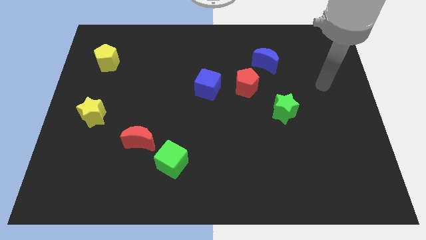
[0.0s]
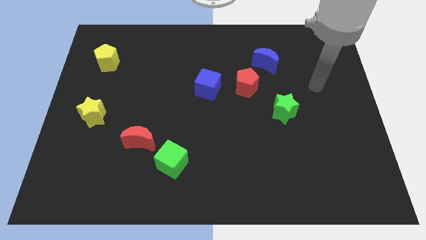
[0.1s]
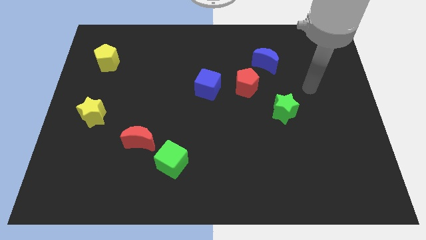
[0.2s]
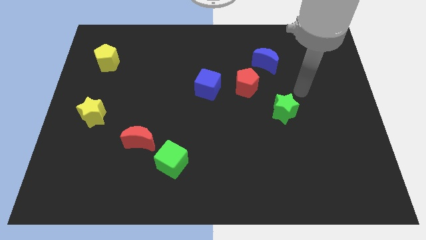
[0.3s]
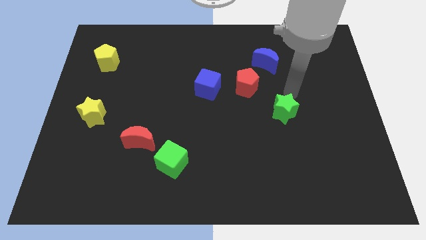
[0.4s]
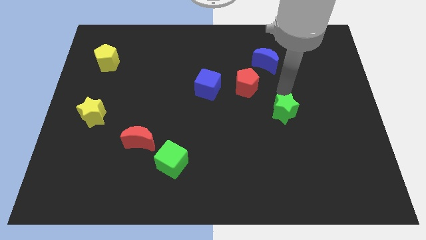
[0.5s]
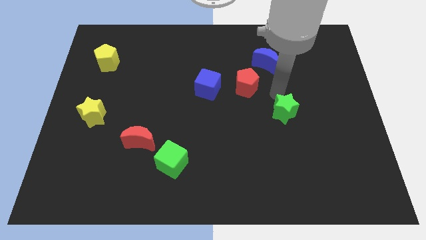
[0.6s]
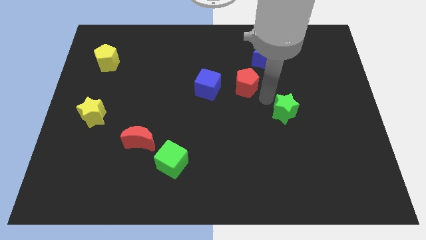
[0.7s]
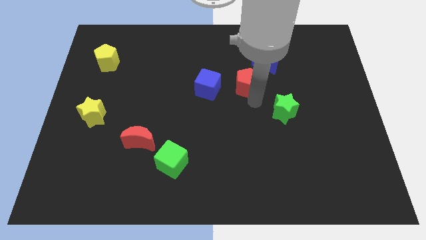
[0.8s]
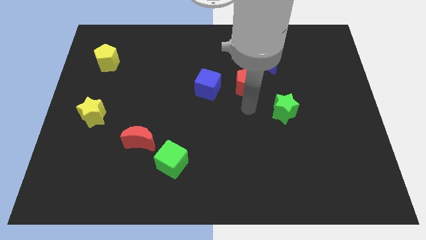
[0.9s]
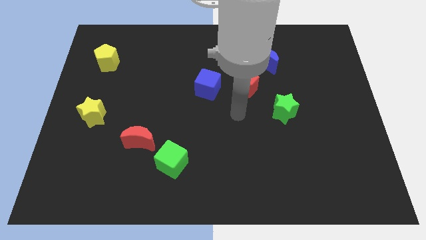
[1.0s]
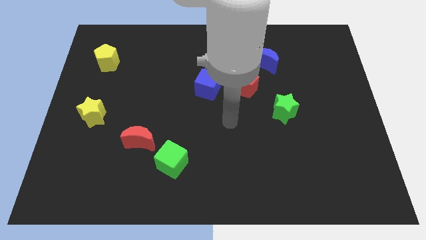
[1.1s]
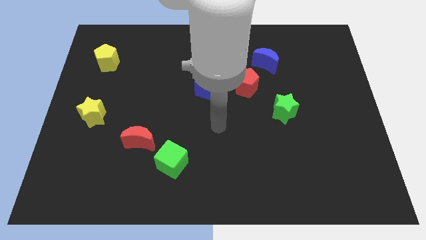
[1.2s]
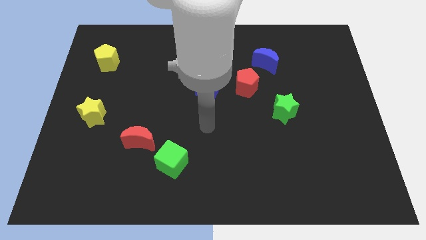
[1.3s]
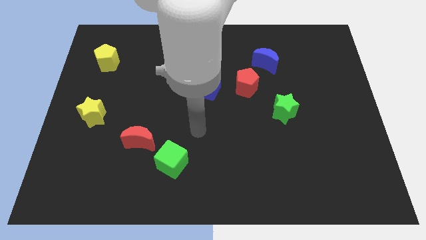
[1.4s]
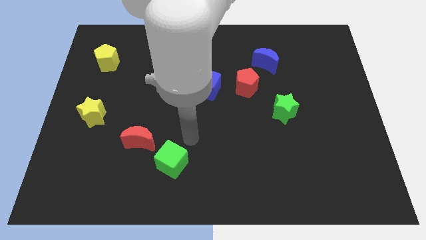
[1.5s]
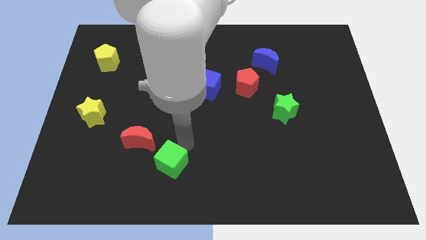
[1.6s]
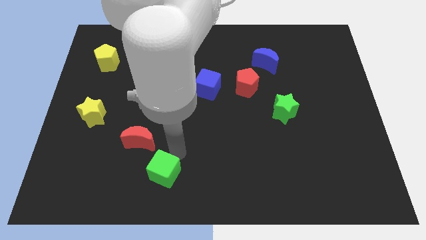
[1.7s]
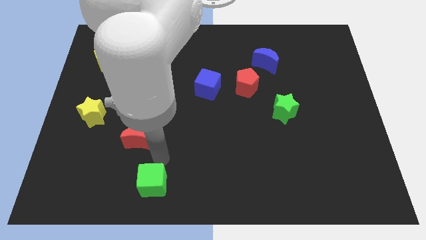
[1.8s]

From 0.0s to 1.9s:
pull the red moon apart from the green cube

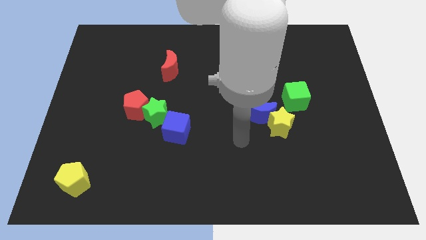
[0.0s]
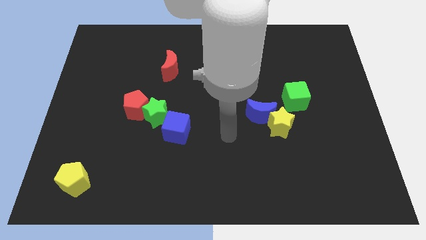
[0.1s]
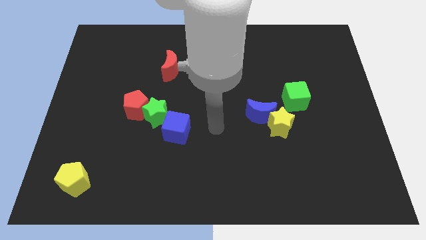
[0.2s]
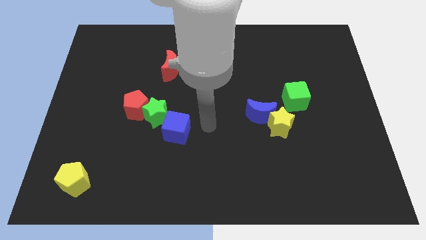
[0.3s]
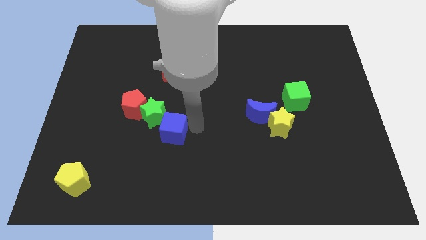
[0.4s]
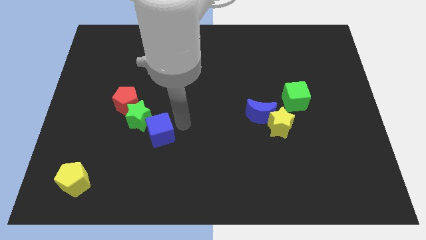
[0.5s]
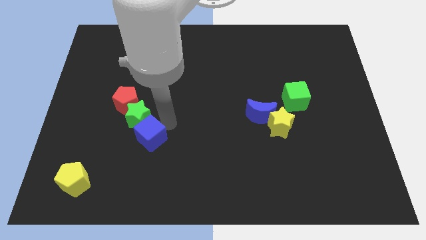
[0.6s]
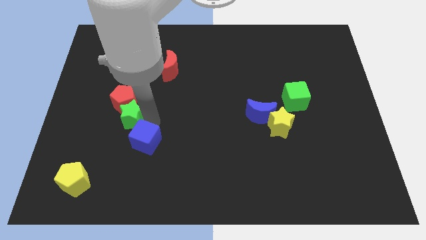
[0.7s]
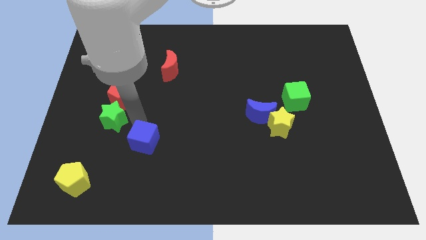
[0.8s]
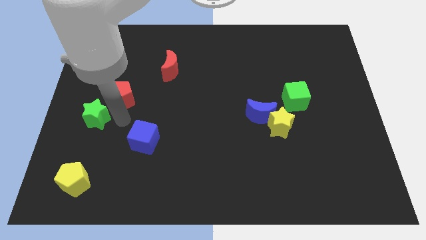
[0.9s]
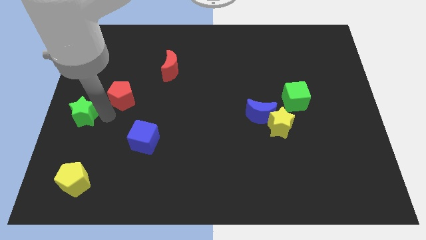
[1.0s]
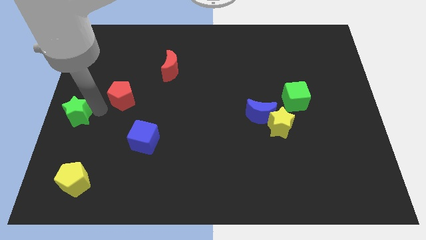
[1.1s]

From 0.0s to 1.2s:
pull the red pentagon apart from the green star

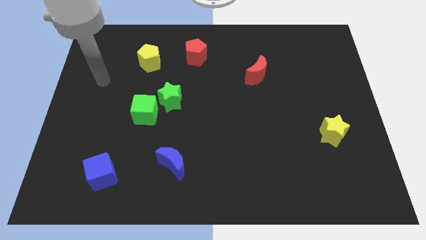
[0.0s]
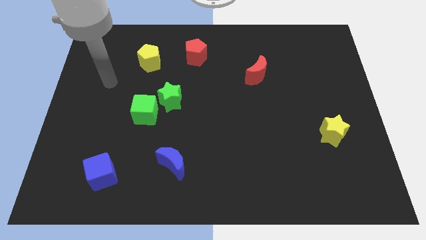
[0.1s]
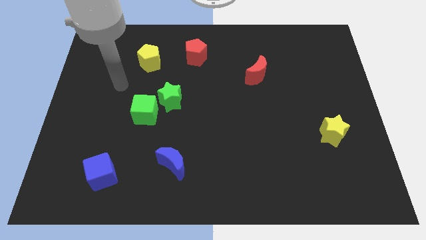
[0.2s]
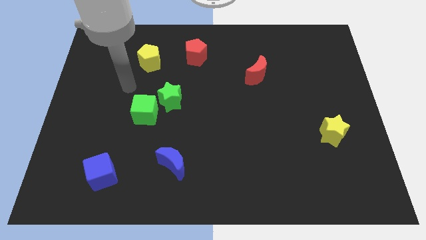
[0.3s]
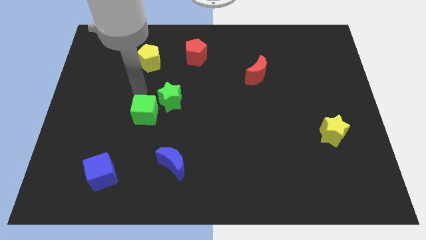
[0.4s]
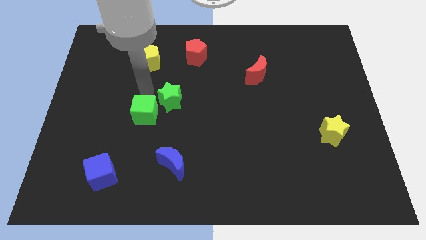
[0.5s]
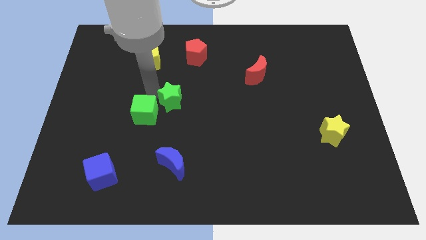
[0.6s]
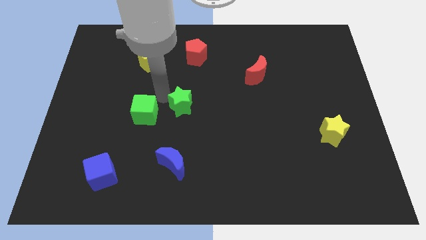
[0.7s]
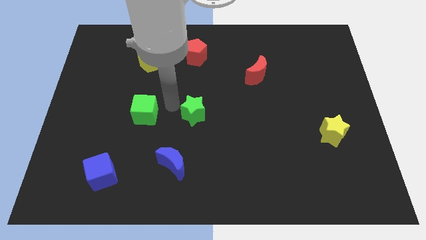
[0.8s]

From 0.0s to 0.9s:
move the green cube away from the green star

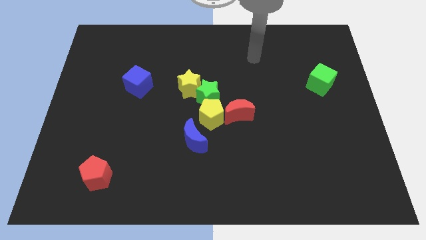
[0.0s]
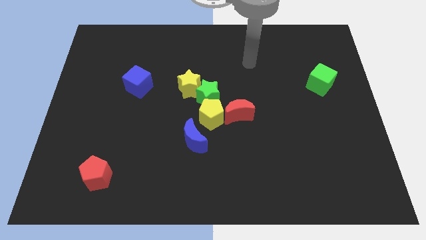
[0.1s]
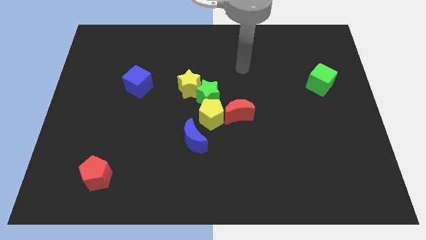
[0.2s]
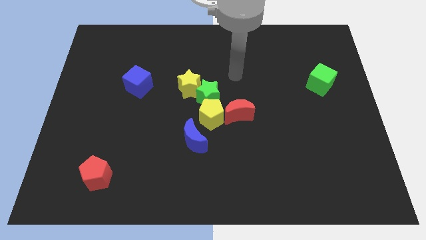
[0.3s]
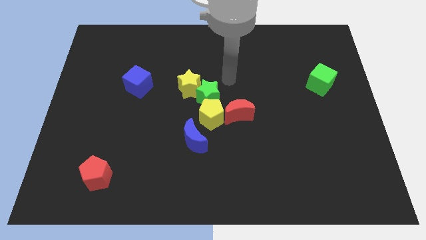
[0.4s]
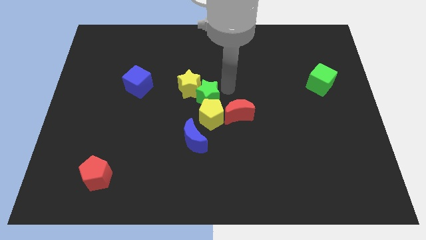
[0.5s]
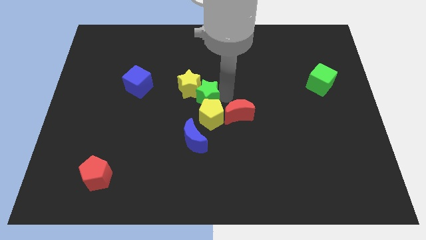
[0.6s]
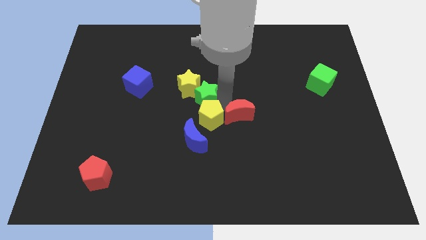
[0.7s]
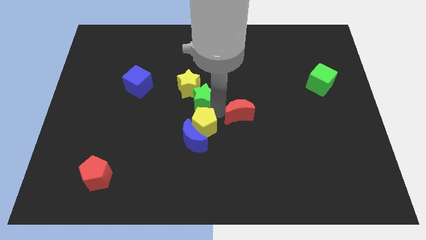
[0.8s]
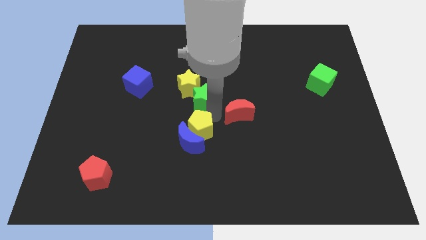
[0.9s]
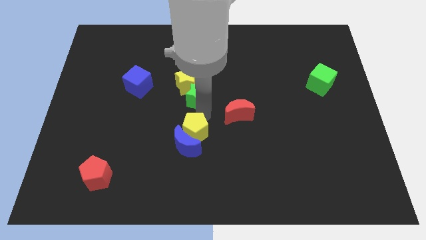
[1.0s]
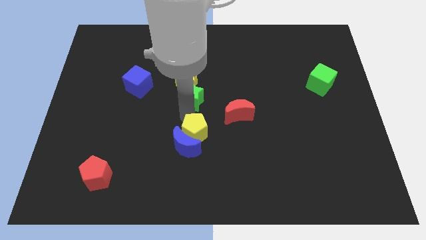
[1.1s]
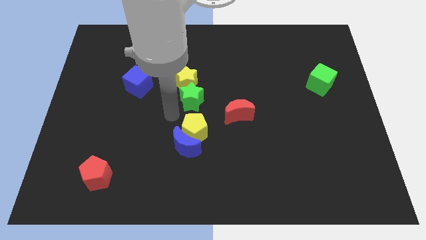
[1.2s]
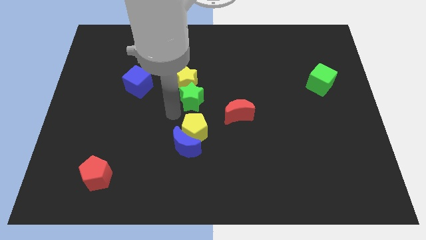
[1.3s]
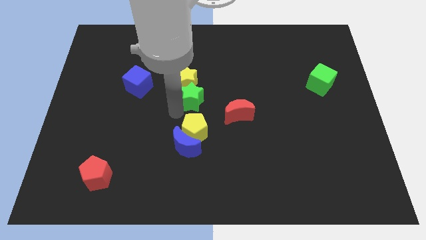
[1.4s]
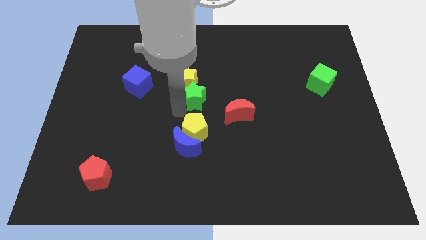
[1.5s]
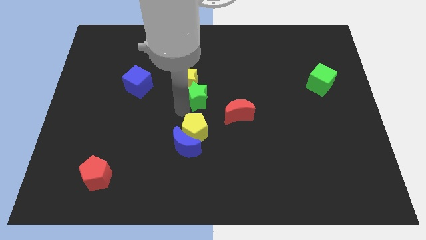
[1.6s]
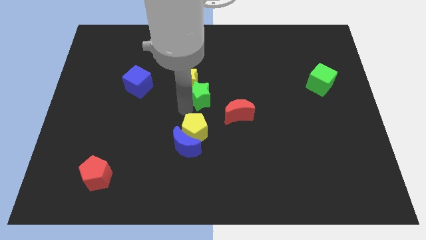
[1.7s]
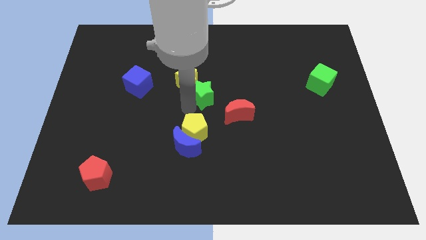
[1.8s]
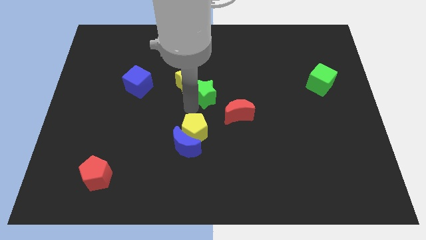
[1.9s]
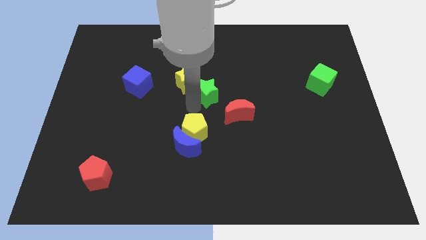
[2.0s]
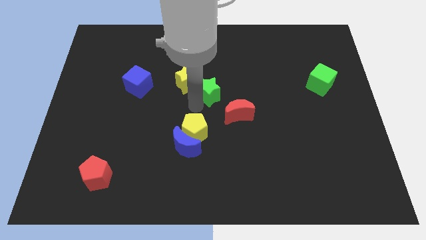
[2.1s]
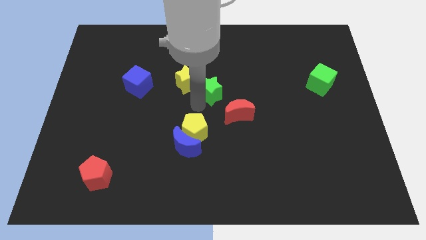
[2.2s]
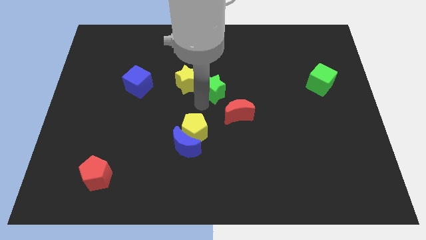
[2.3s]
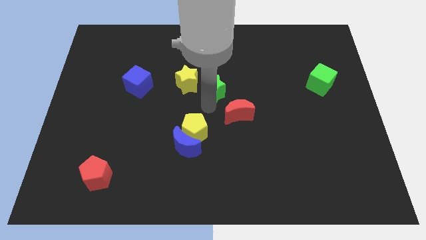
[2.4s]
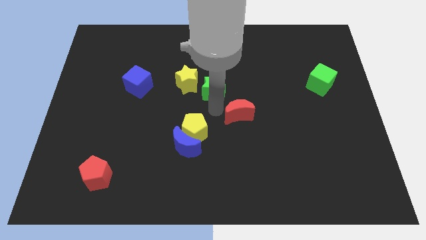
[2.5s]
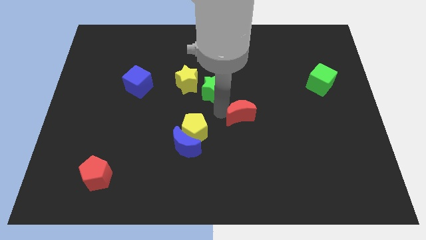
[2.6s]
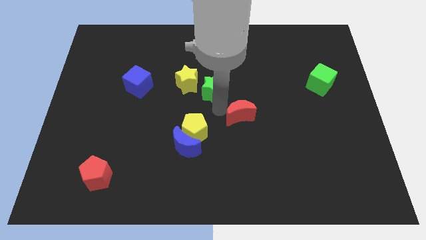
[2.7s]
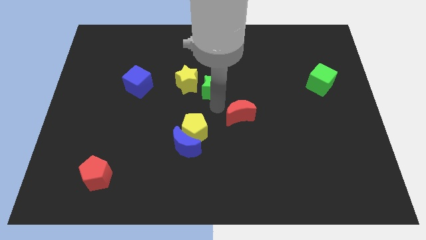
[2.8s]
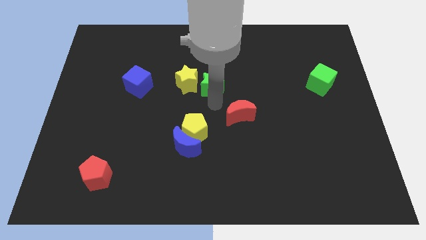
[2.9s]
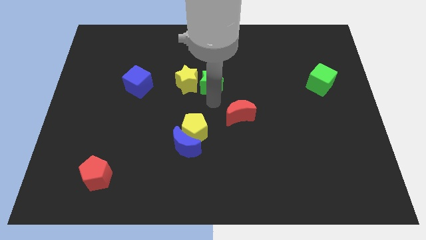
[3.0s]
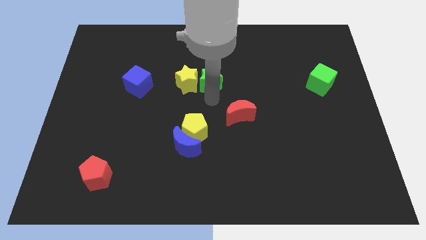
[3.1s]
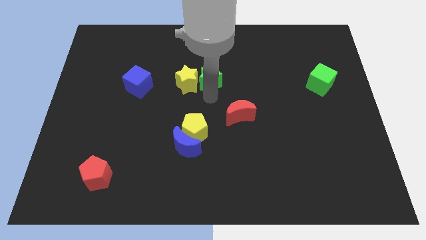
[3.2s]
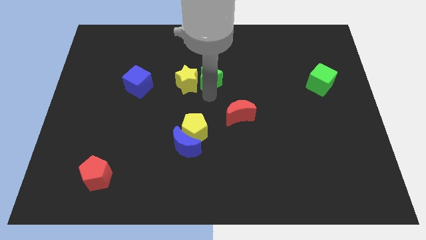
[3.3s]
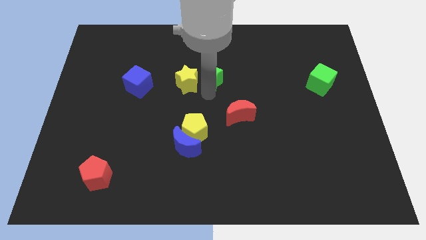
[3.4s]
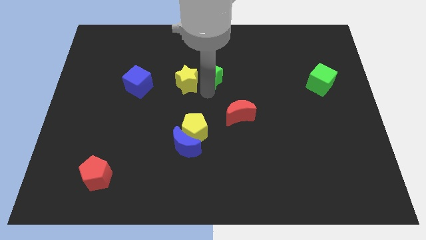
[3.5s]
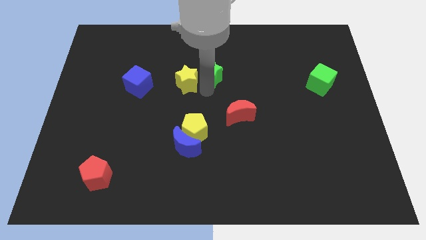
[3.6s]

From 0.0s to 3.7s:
move the green star away from the yellow star, yellow pentagon, and red moon

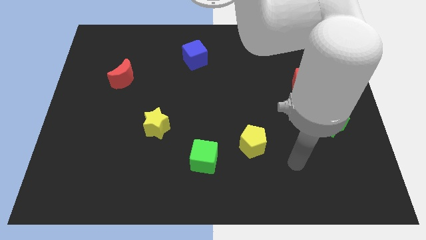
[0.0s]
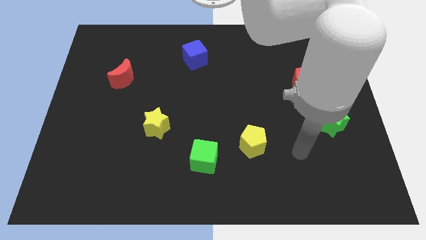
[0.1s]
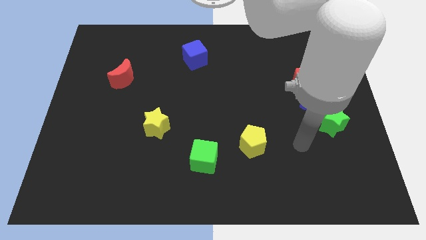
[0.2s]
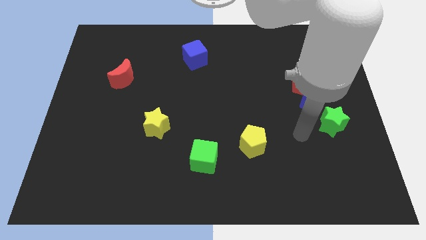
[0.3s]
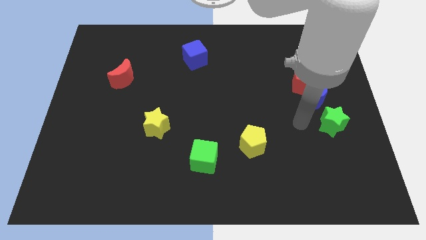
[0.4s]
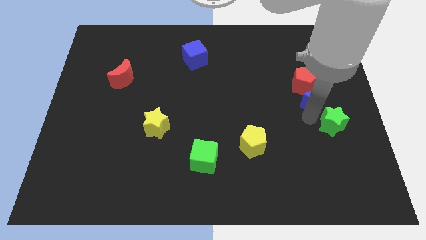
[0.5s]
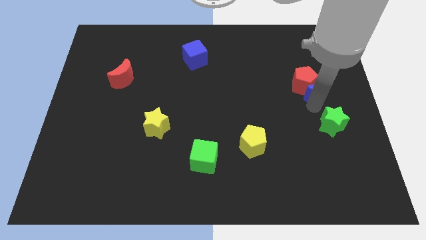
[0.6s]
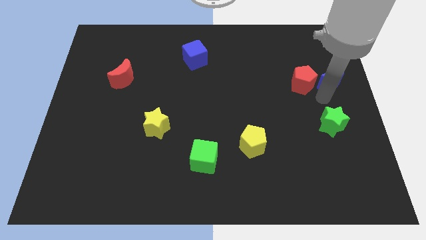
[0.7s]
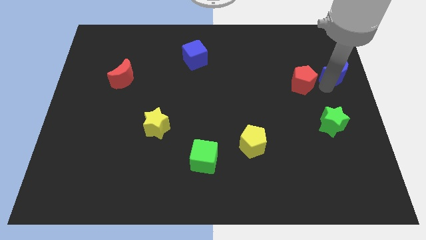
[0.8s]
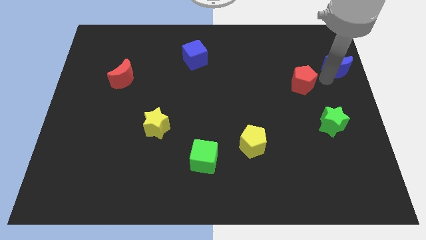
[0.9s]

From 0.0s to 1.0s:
pull the red pentagon apart from the blue moon

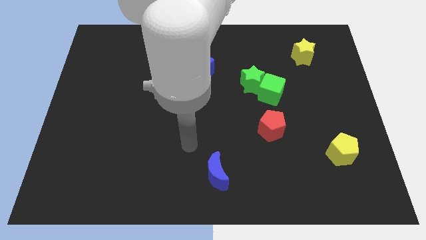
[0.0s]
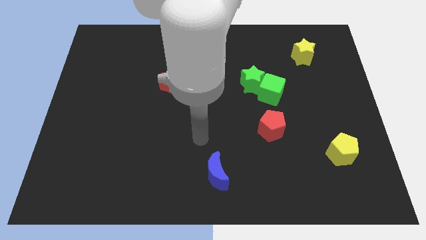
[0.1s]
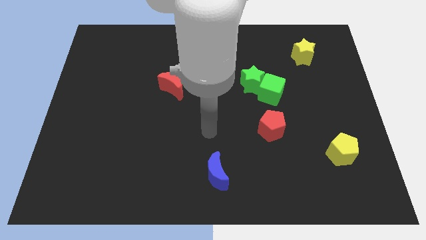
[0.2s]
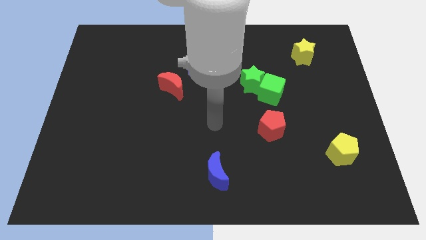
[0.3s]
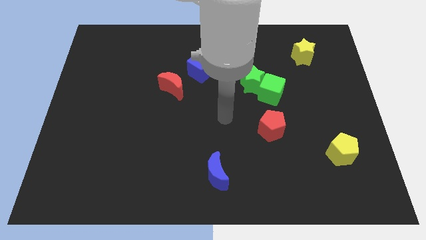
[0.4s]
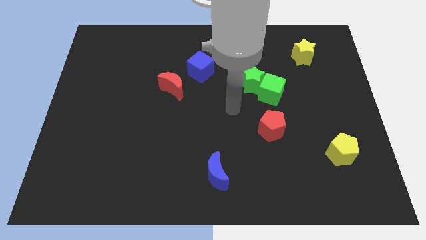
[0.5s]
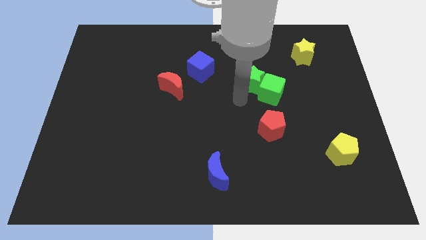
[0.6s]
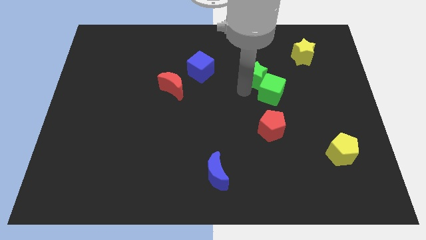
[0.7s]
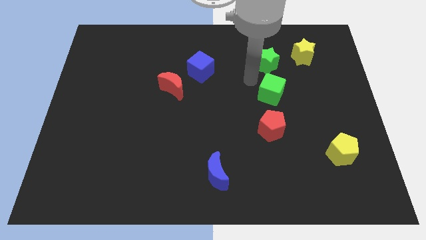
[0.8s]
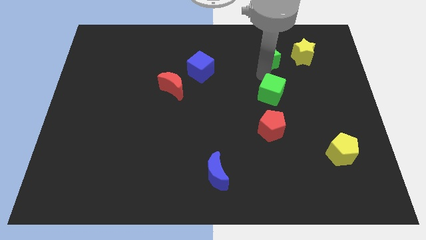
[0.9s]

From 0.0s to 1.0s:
pull the green cube apart from the green star
